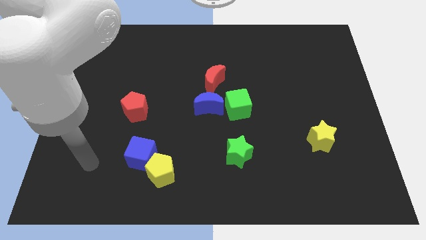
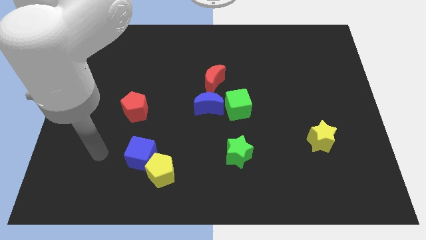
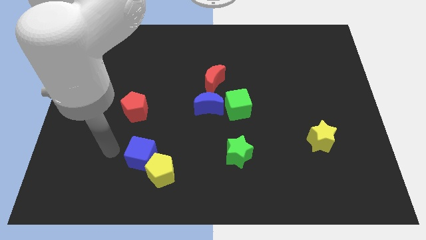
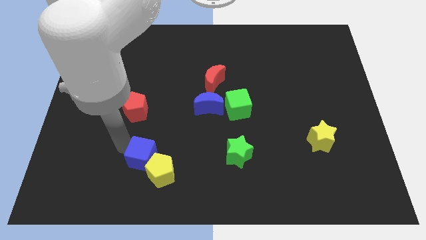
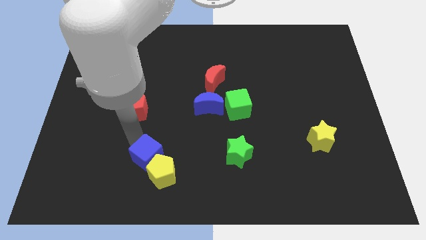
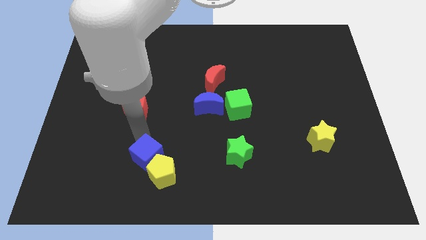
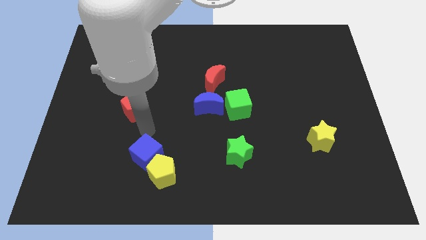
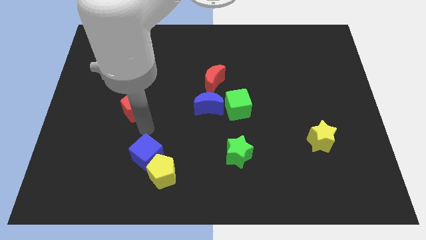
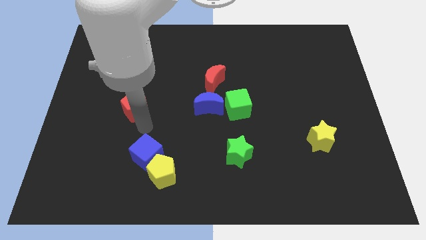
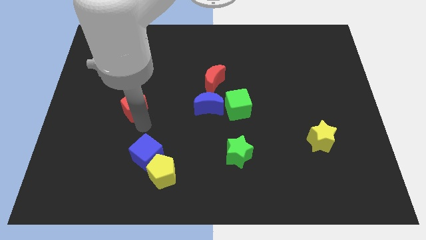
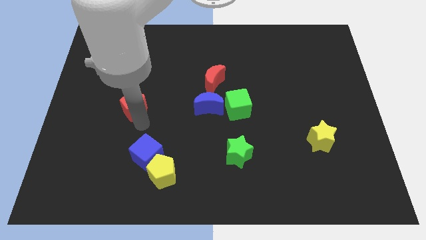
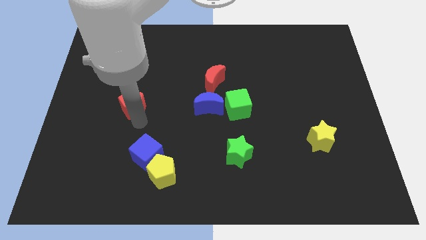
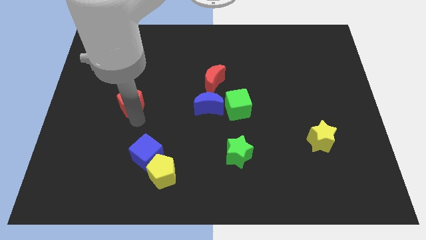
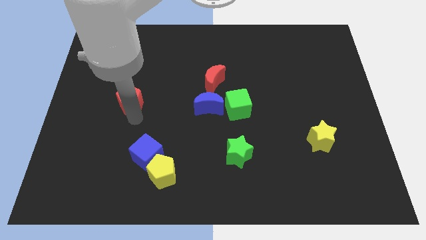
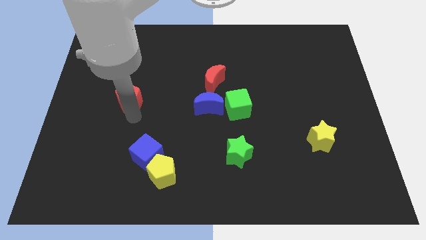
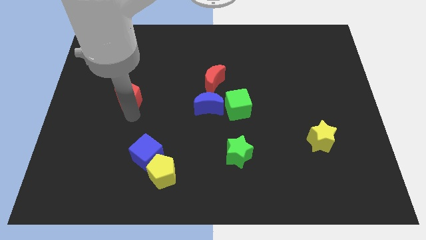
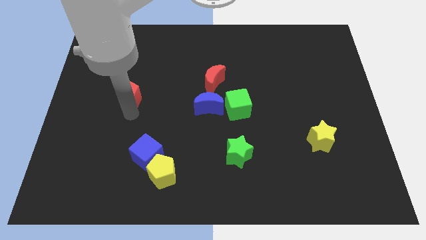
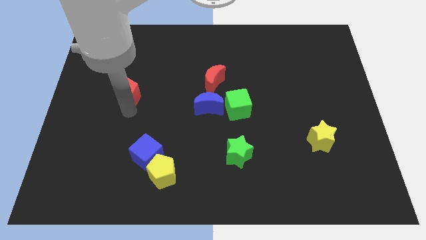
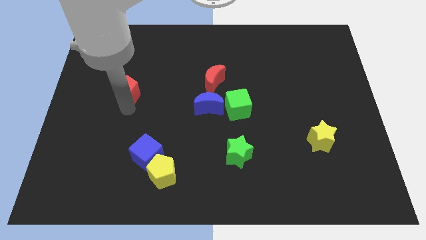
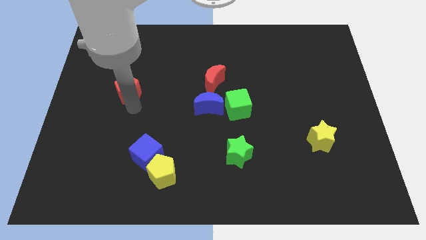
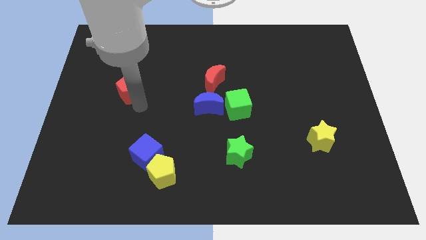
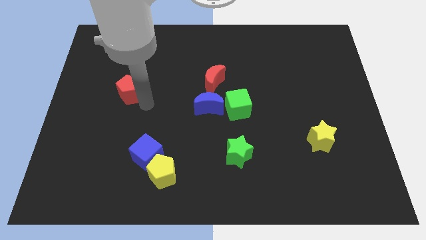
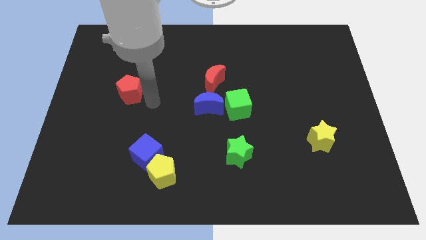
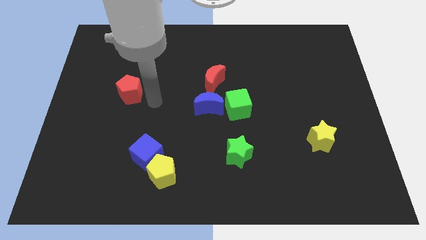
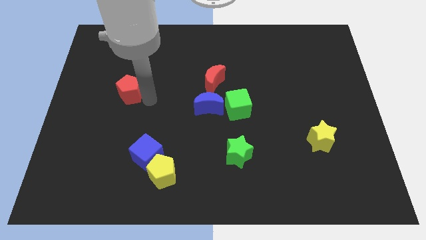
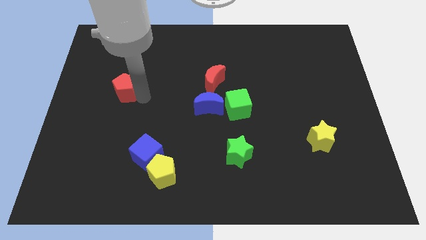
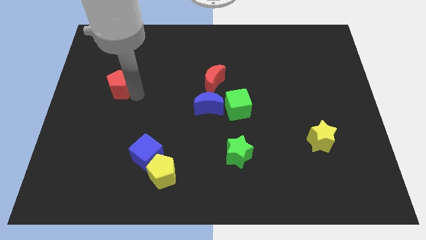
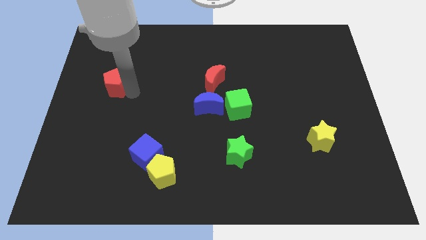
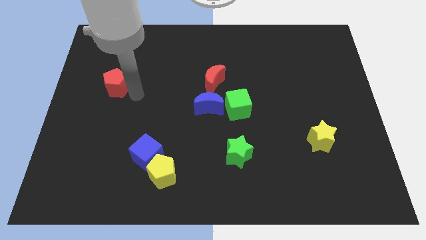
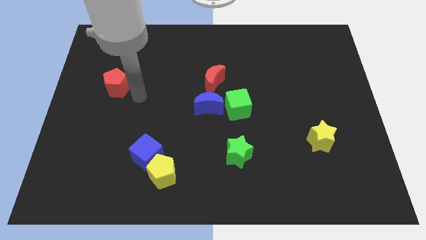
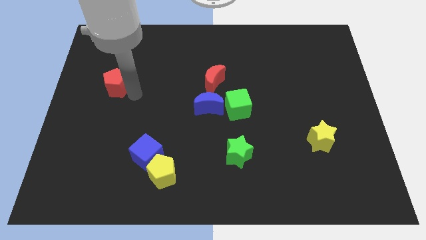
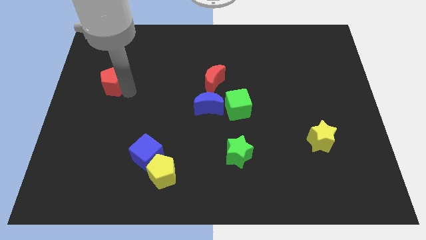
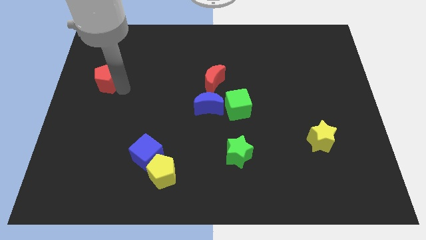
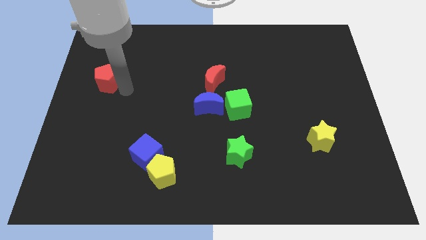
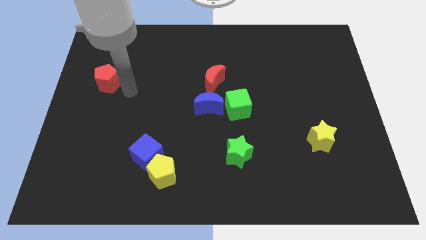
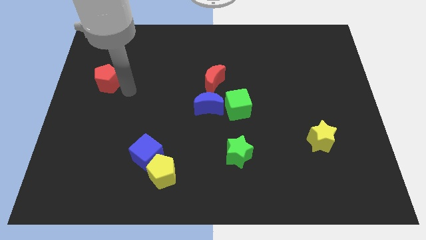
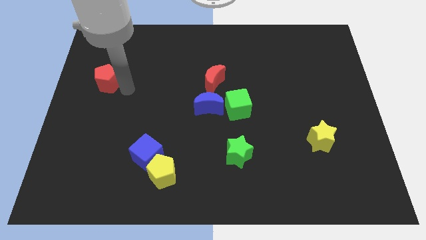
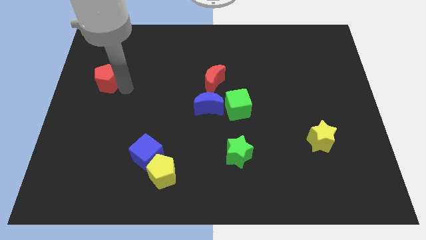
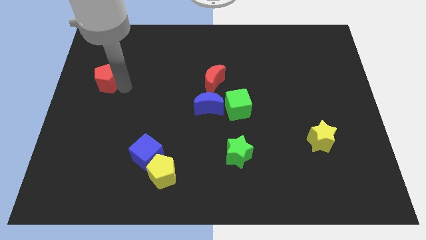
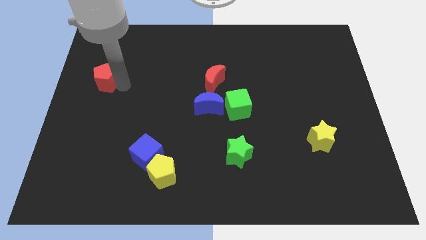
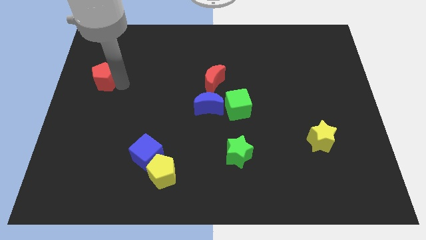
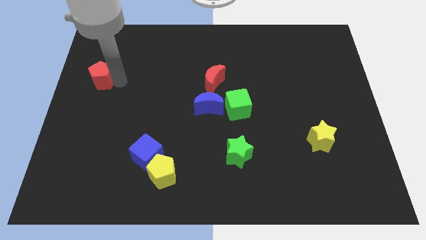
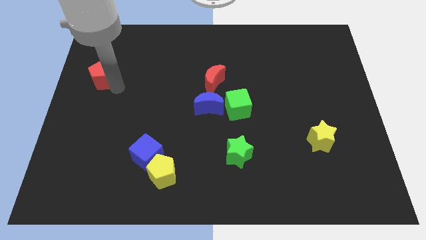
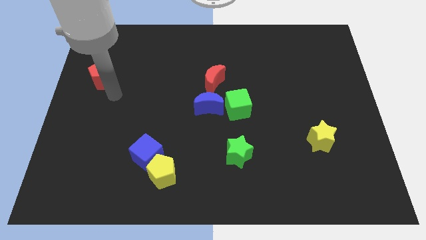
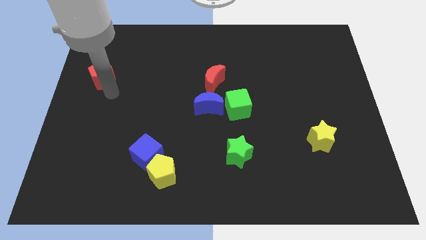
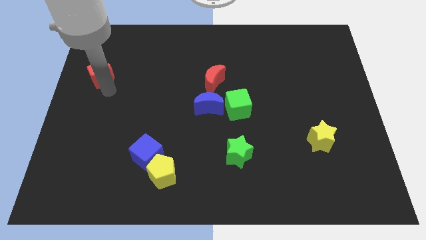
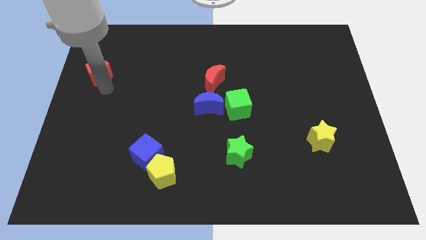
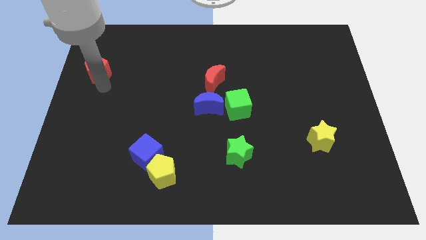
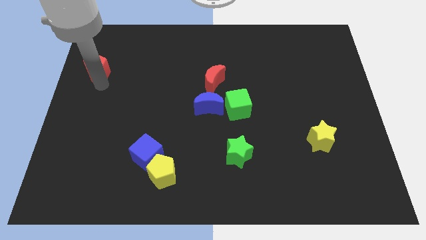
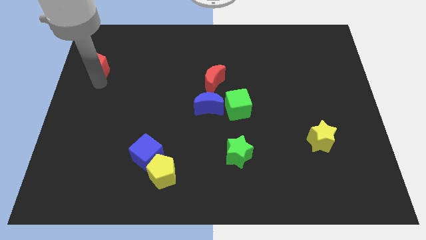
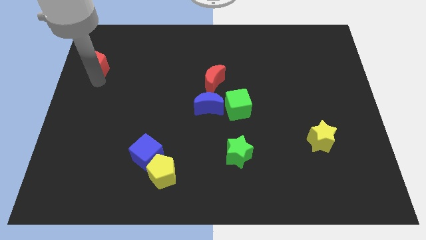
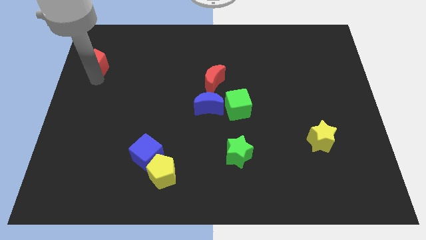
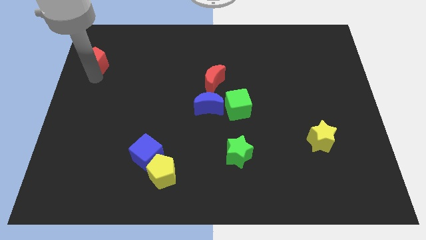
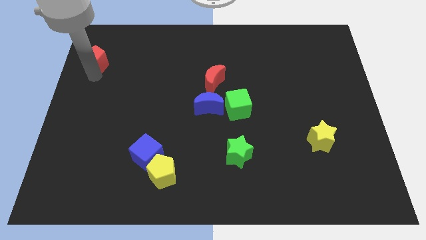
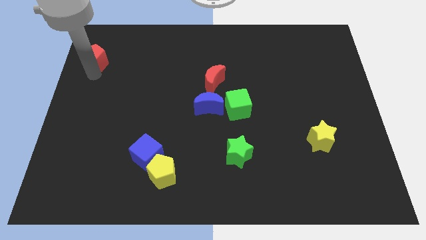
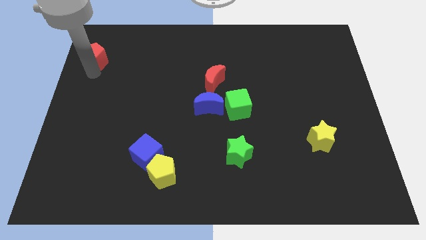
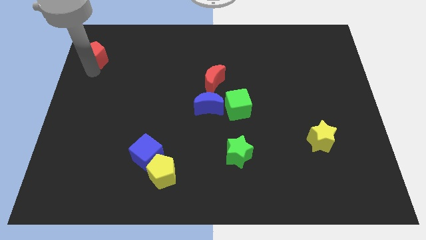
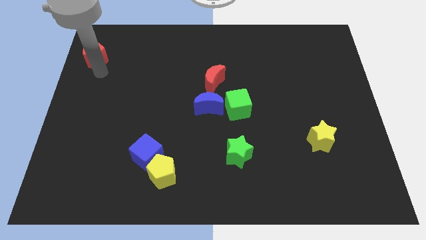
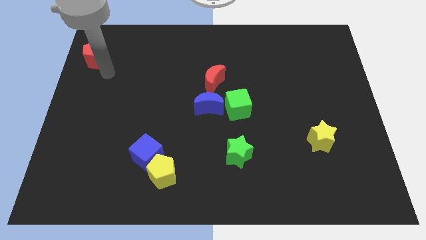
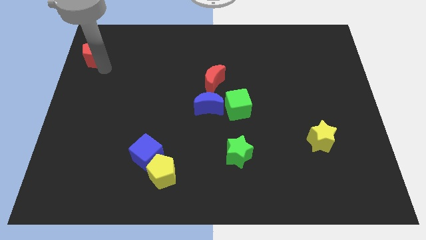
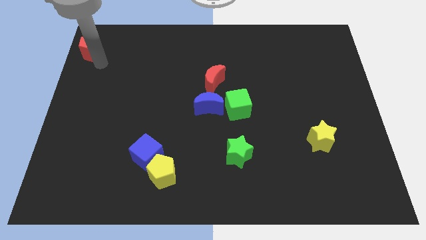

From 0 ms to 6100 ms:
push the red pentagon to the upper left corner

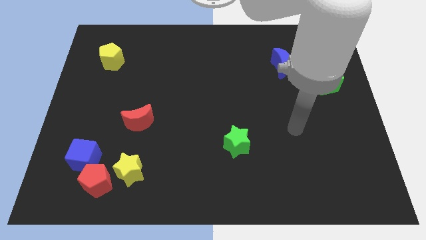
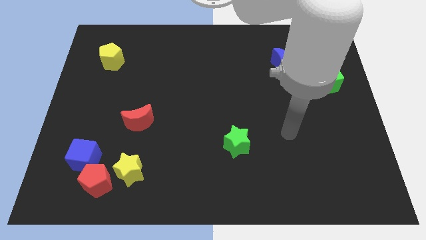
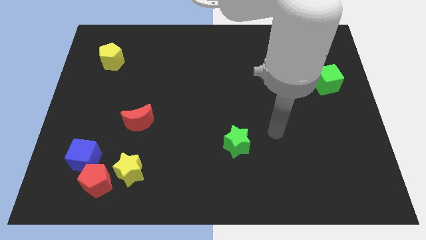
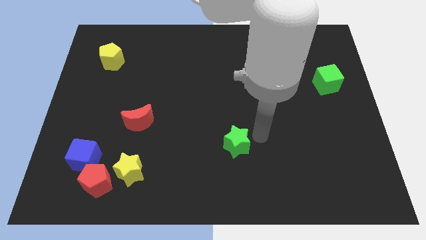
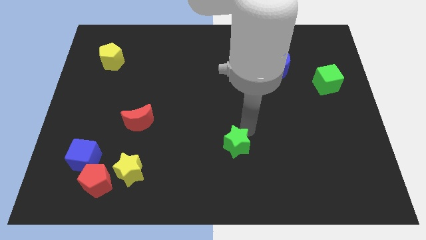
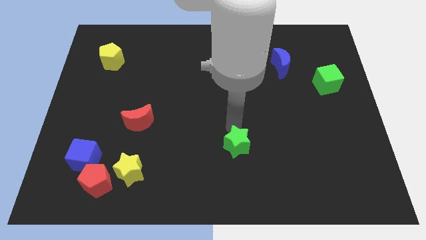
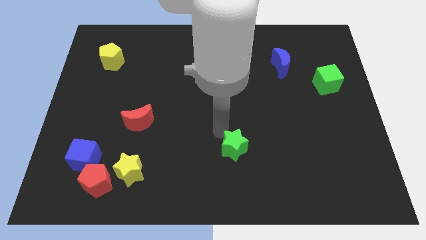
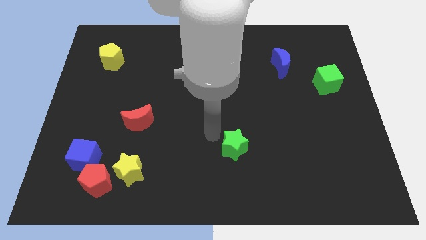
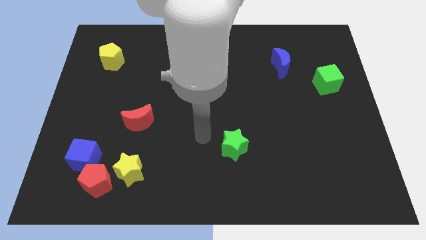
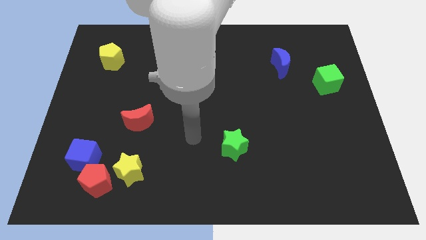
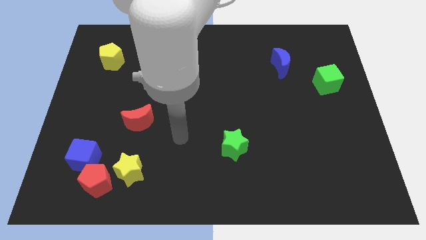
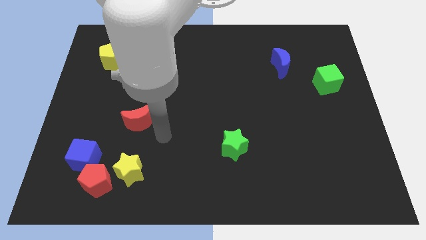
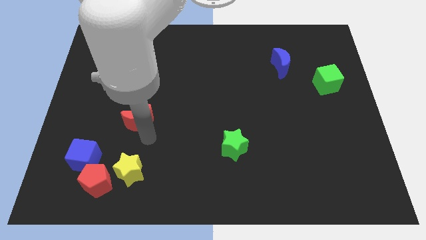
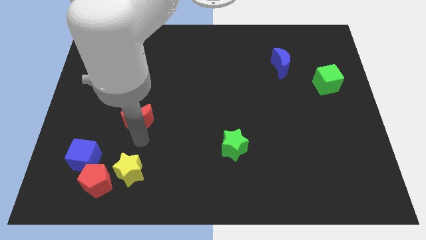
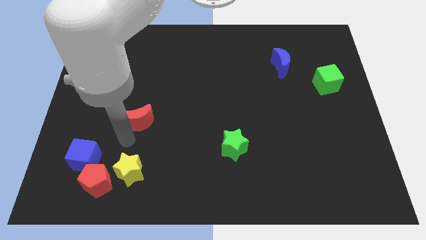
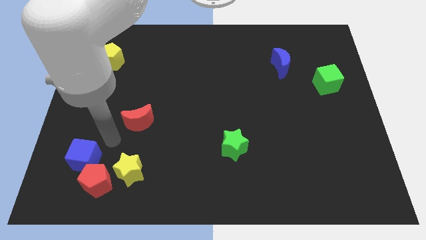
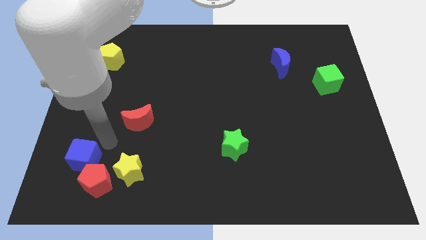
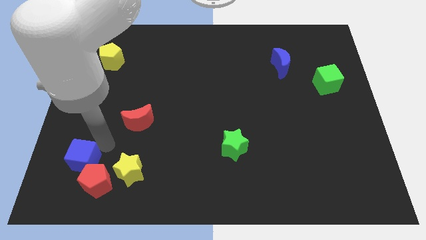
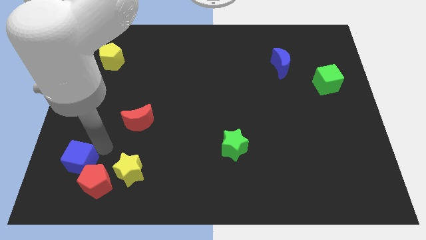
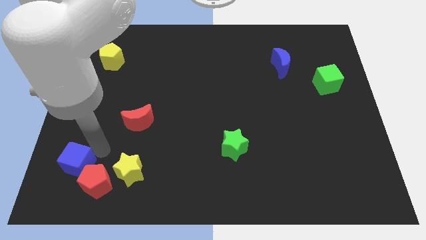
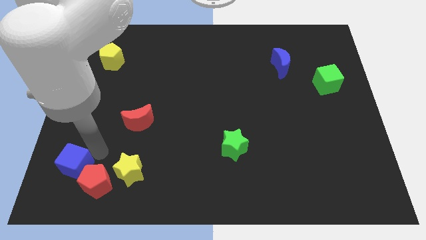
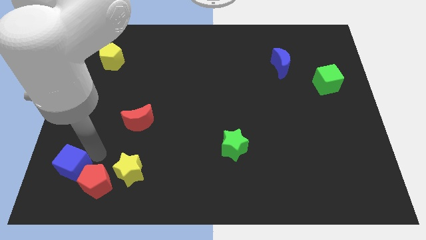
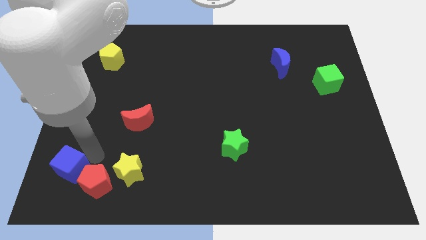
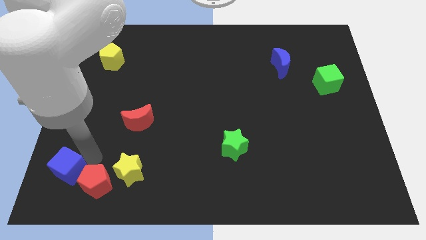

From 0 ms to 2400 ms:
put the blue cube to the bottom left corner
